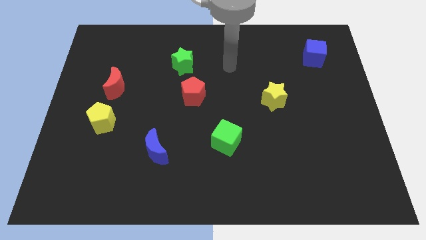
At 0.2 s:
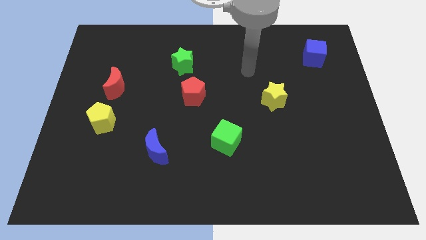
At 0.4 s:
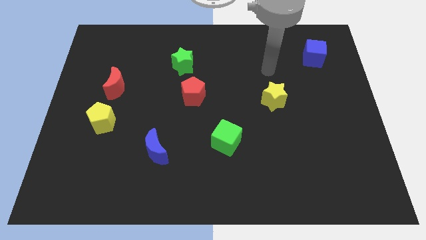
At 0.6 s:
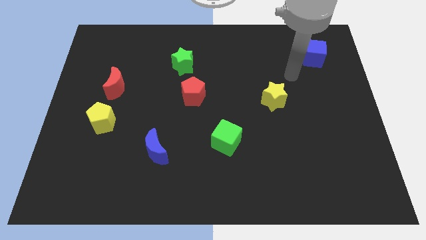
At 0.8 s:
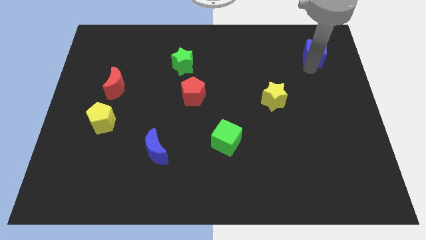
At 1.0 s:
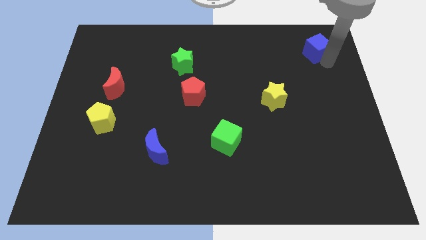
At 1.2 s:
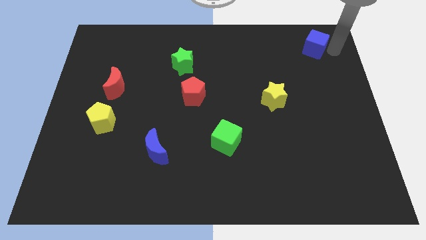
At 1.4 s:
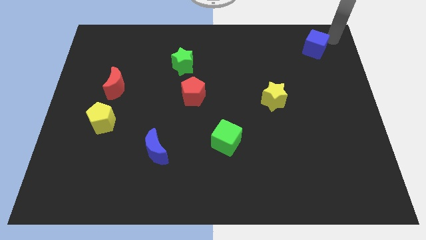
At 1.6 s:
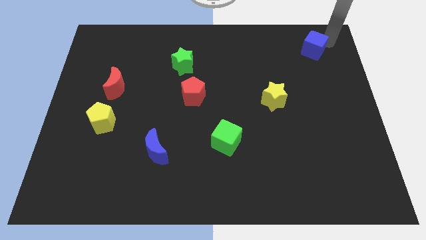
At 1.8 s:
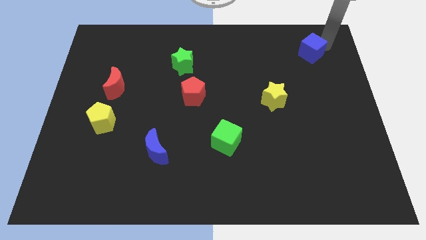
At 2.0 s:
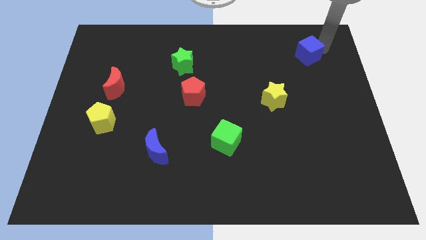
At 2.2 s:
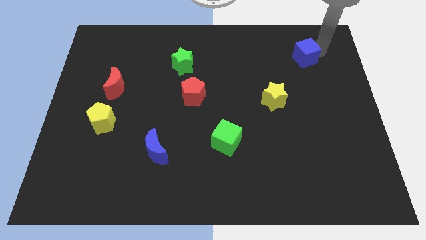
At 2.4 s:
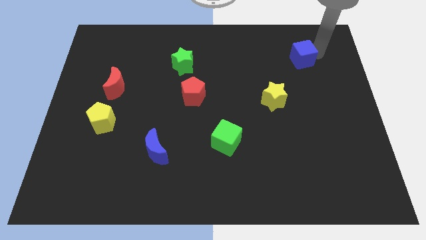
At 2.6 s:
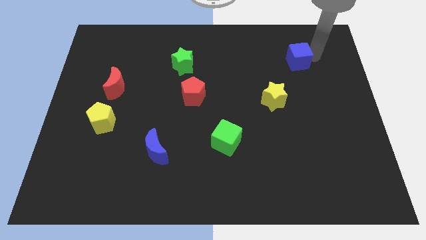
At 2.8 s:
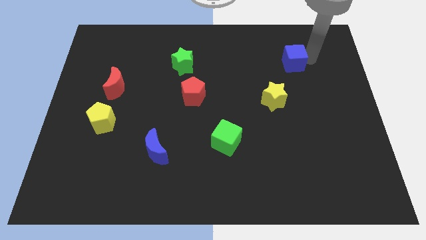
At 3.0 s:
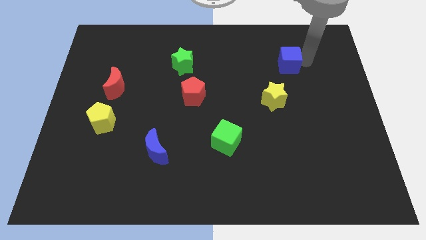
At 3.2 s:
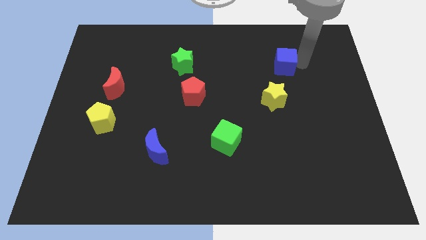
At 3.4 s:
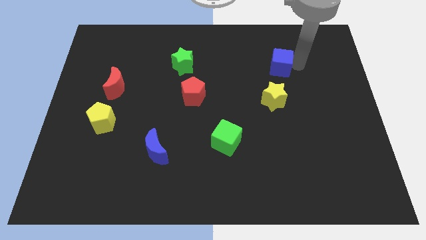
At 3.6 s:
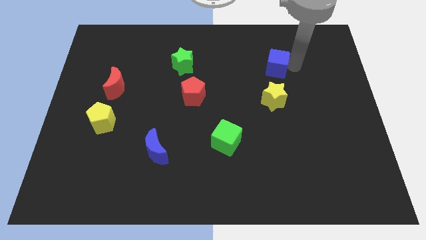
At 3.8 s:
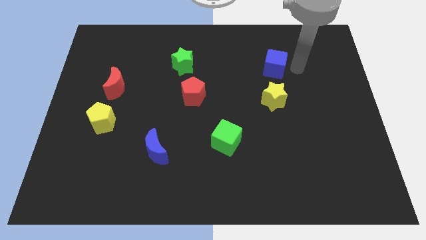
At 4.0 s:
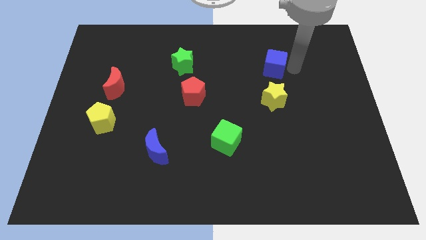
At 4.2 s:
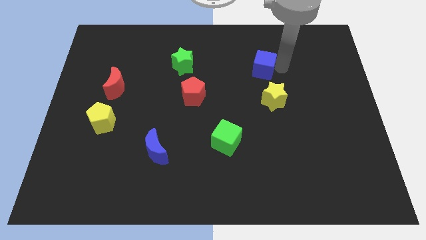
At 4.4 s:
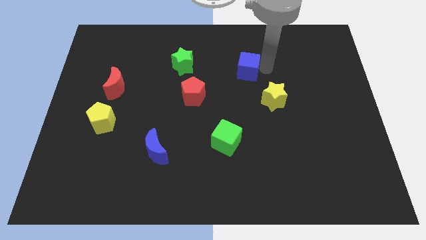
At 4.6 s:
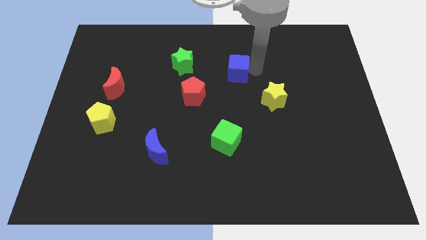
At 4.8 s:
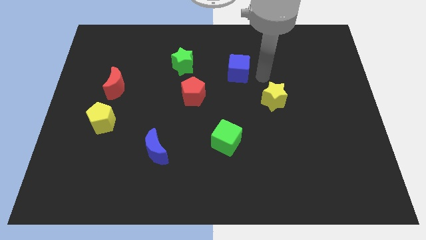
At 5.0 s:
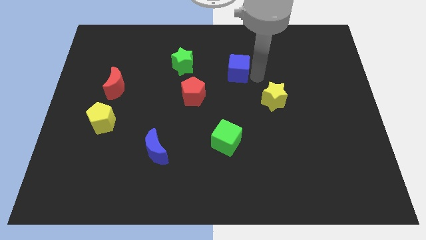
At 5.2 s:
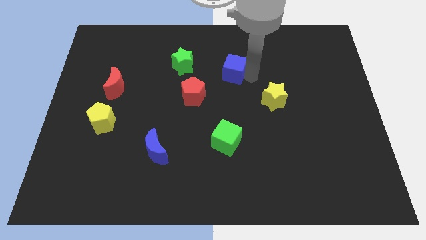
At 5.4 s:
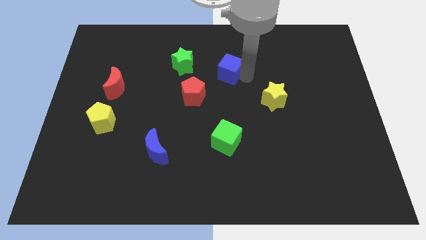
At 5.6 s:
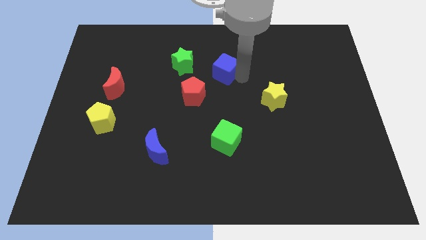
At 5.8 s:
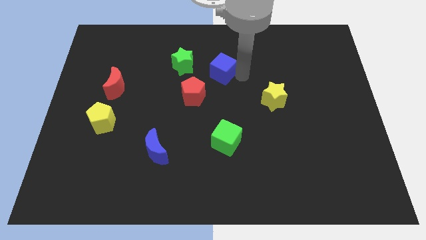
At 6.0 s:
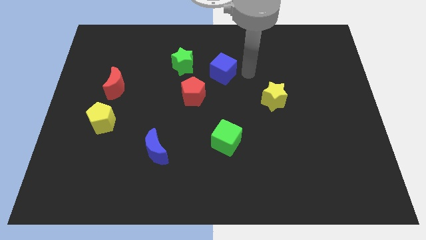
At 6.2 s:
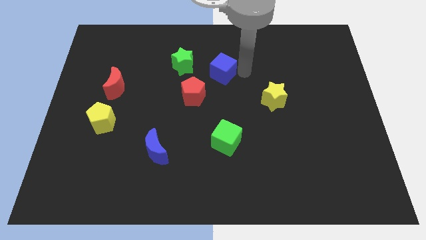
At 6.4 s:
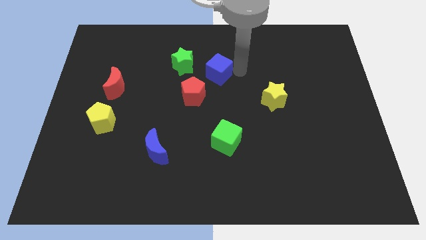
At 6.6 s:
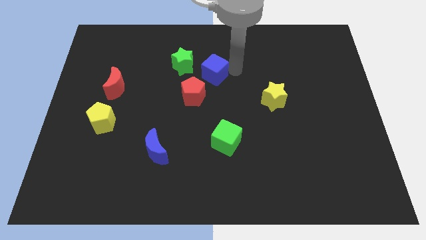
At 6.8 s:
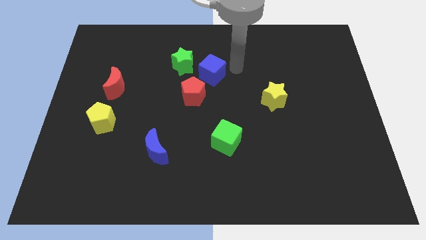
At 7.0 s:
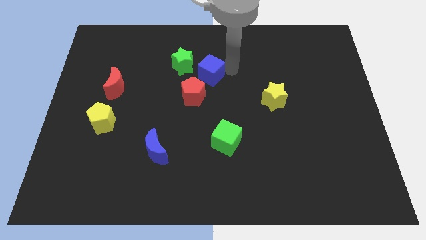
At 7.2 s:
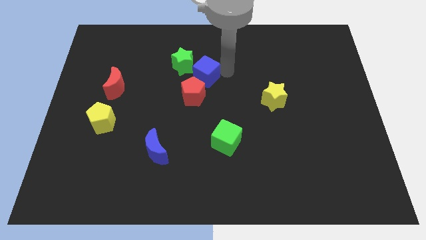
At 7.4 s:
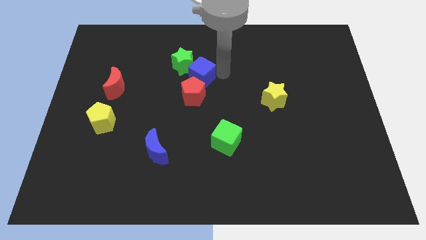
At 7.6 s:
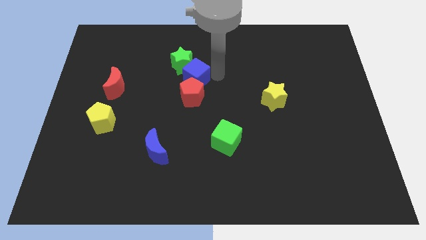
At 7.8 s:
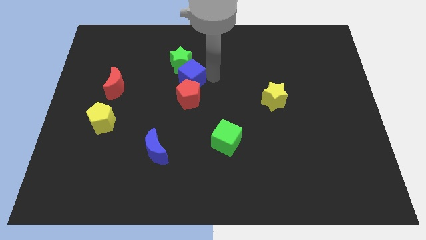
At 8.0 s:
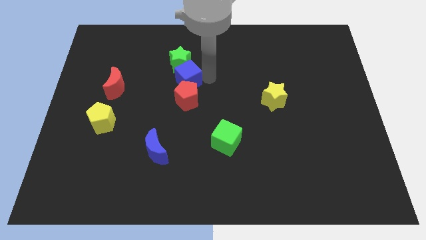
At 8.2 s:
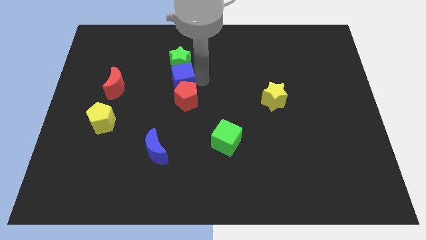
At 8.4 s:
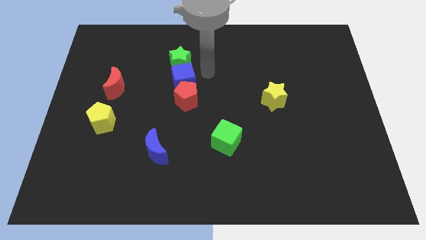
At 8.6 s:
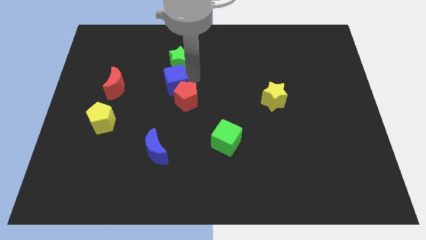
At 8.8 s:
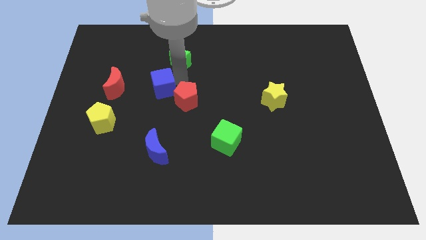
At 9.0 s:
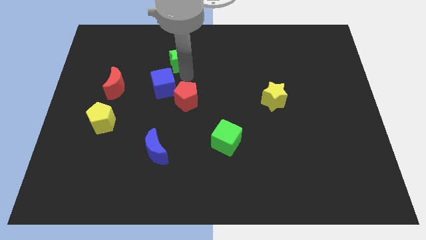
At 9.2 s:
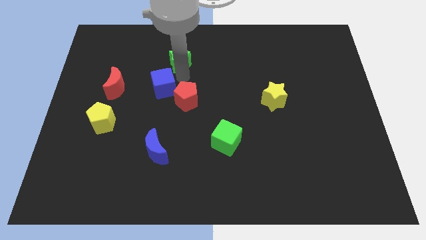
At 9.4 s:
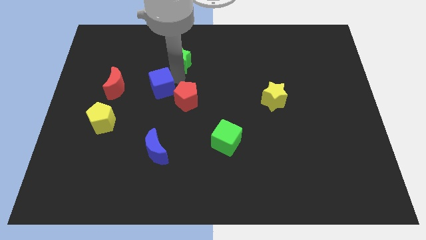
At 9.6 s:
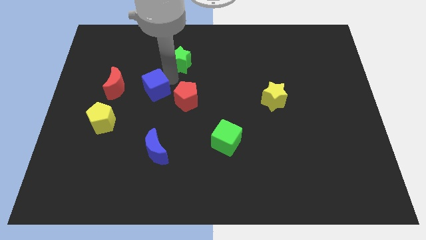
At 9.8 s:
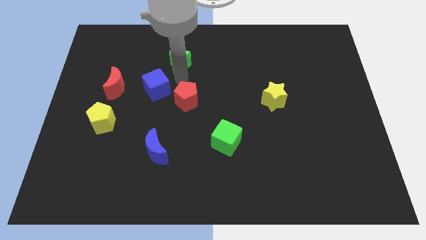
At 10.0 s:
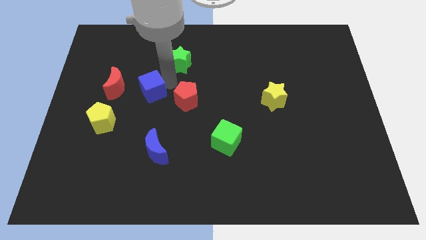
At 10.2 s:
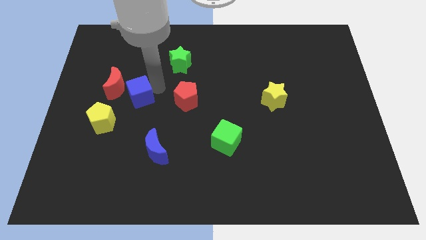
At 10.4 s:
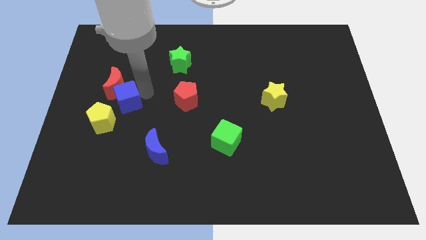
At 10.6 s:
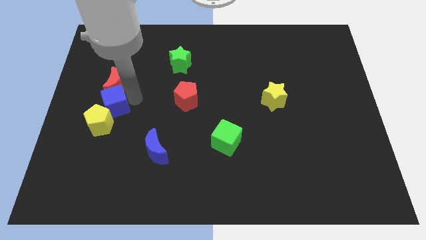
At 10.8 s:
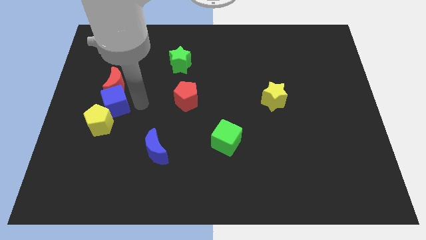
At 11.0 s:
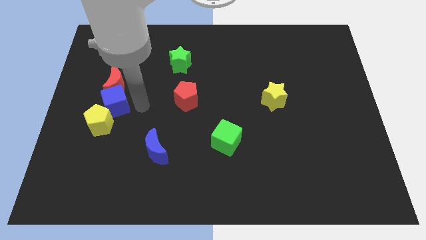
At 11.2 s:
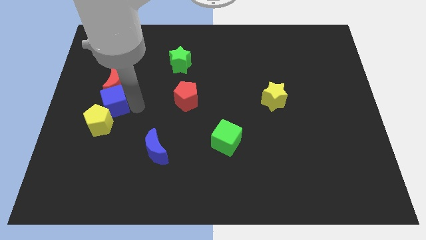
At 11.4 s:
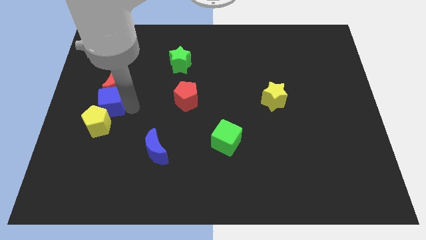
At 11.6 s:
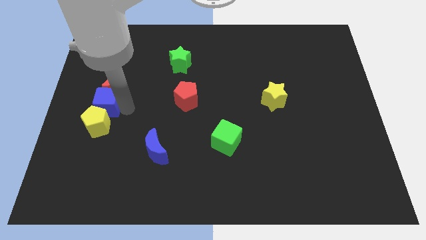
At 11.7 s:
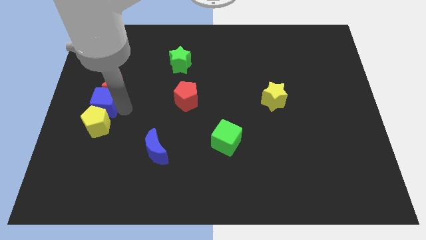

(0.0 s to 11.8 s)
slide the blue cube to the left side of the board
